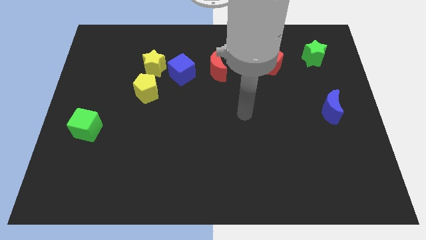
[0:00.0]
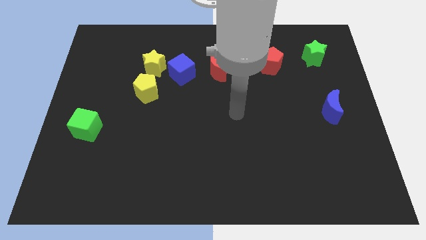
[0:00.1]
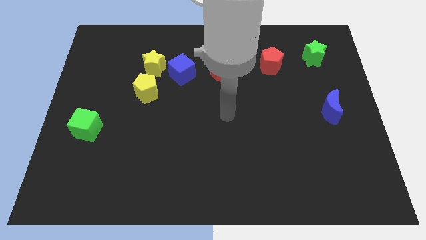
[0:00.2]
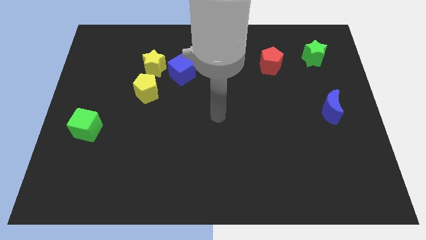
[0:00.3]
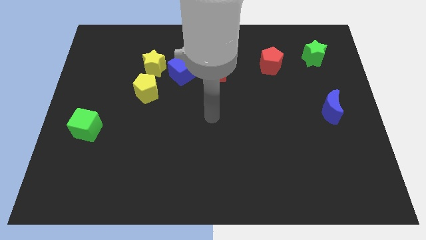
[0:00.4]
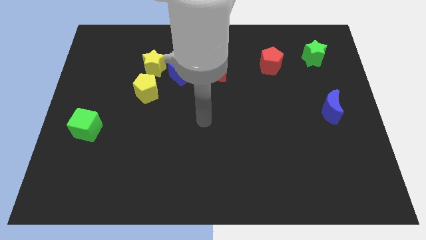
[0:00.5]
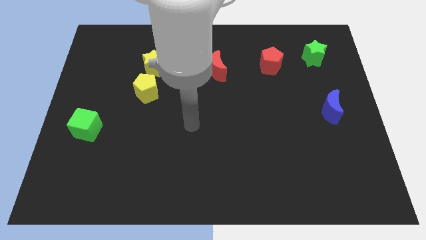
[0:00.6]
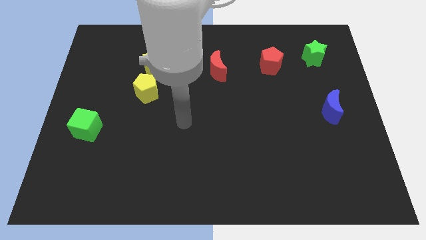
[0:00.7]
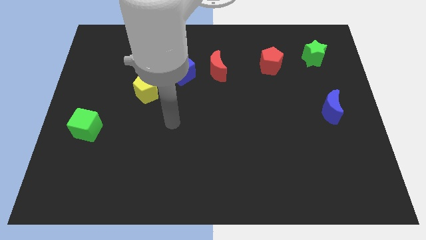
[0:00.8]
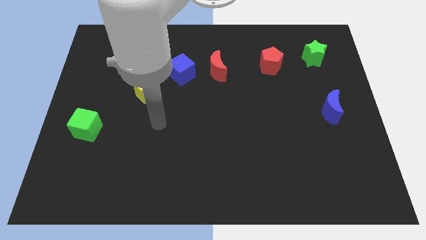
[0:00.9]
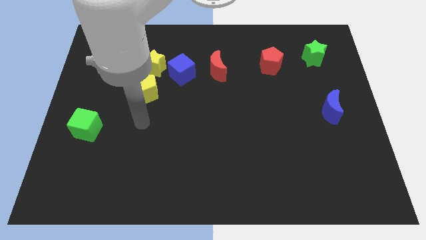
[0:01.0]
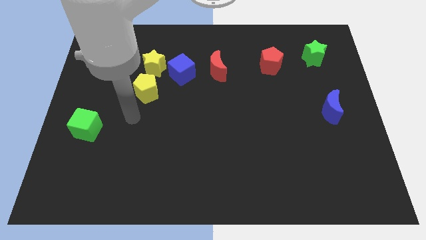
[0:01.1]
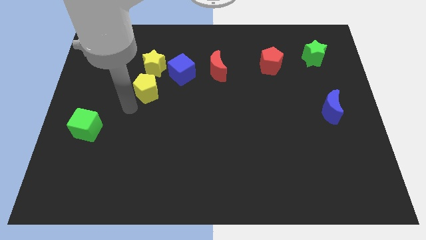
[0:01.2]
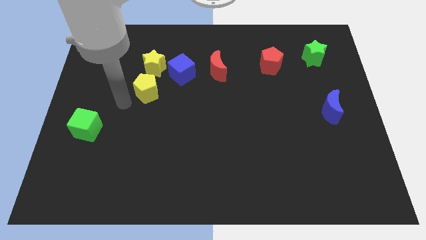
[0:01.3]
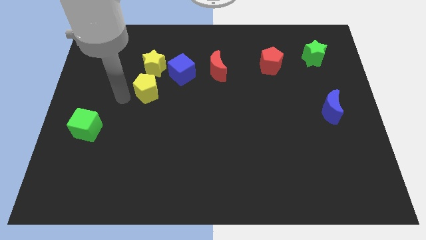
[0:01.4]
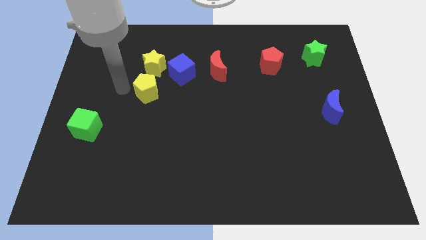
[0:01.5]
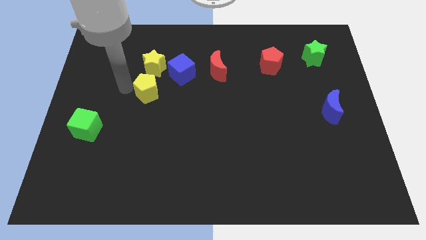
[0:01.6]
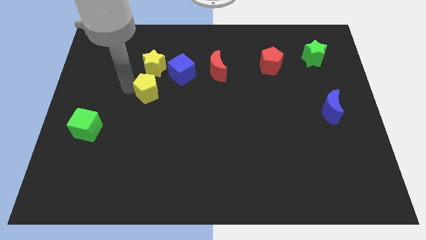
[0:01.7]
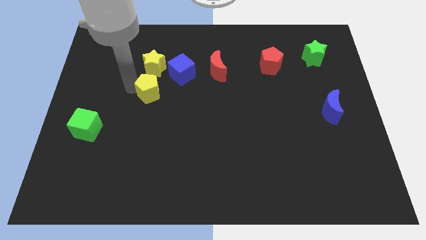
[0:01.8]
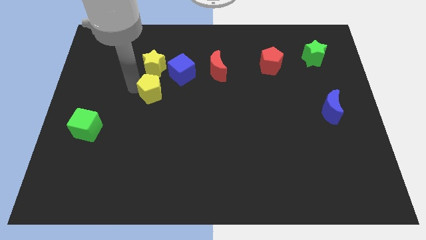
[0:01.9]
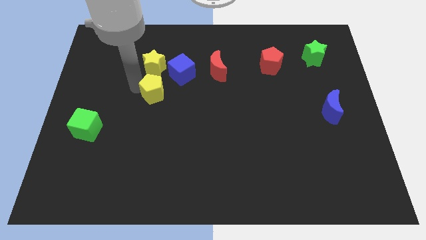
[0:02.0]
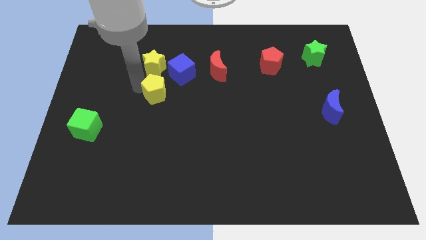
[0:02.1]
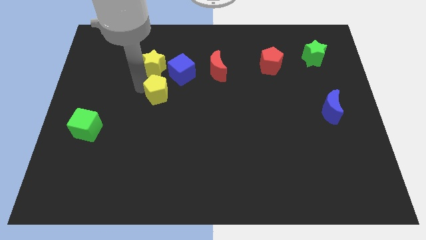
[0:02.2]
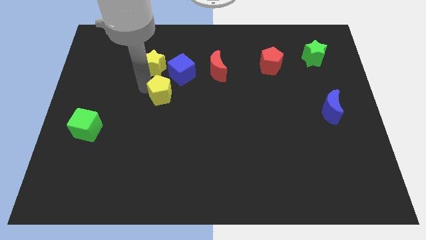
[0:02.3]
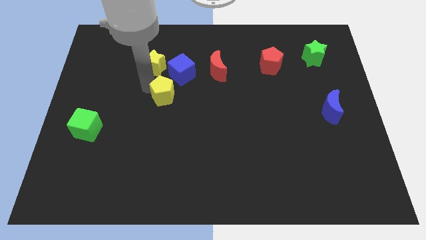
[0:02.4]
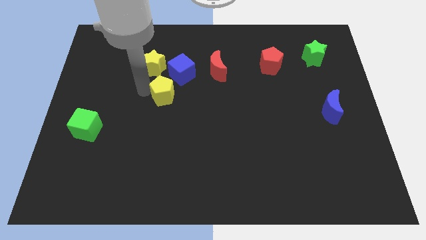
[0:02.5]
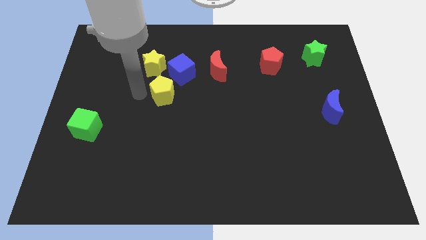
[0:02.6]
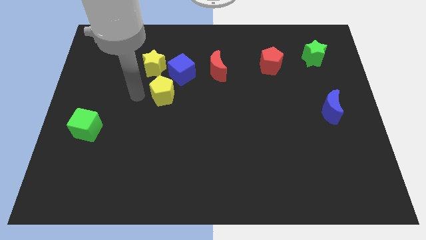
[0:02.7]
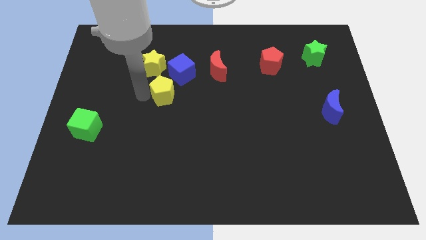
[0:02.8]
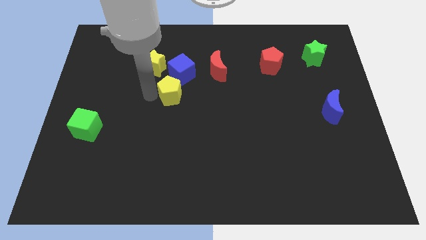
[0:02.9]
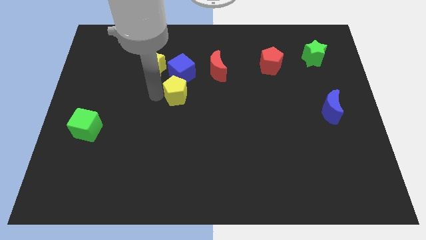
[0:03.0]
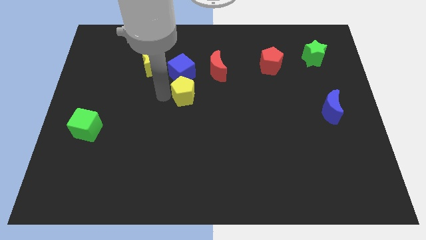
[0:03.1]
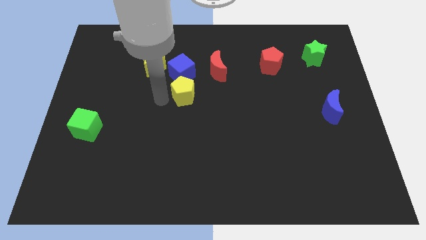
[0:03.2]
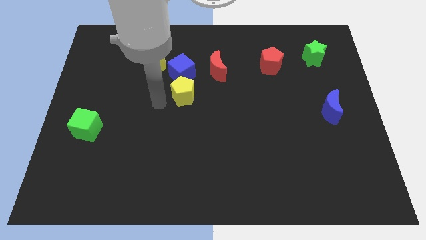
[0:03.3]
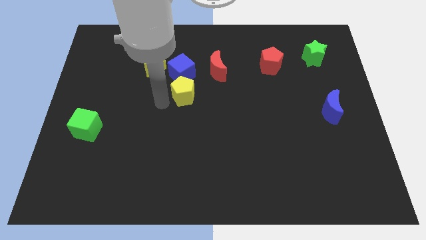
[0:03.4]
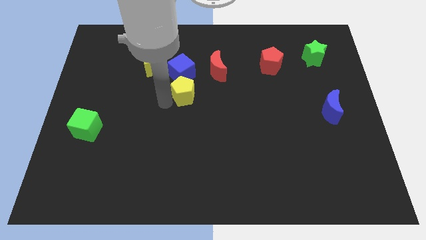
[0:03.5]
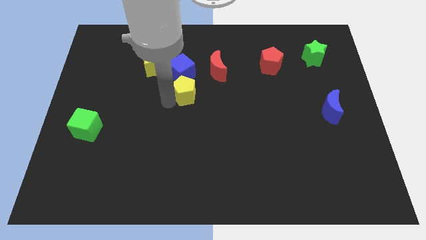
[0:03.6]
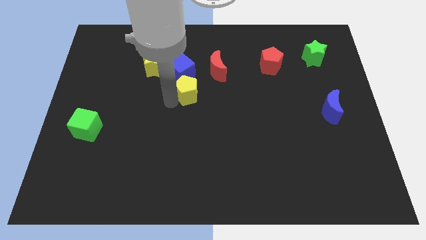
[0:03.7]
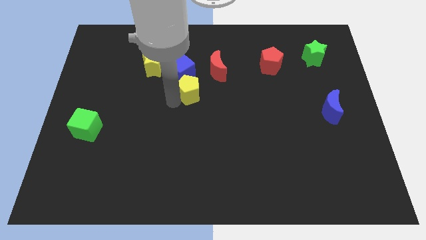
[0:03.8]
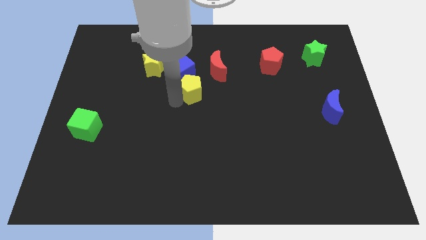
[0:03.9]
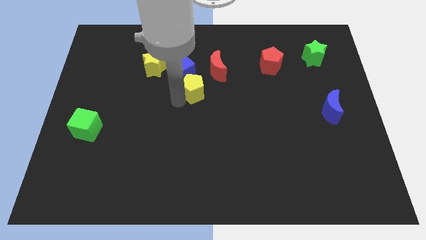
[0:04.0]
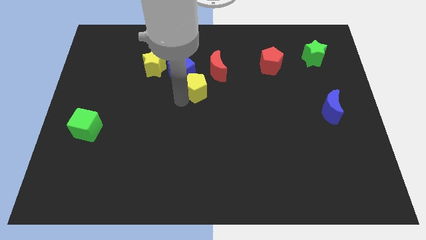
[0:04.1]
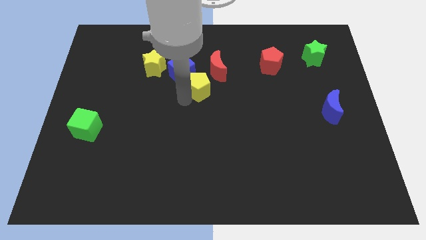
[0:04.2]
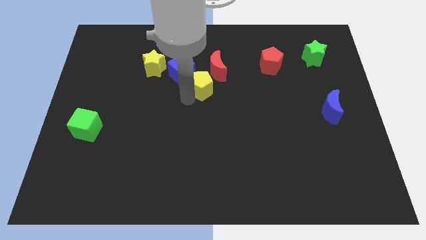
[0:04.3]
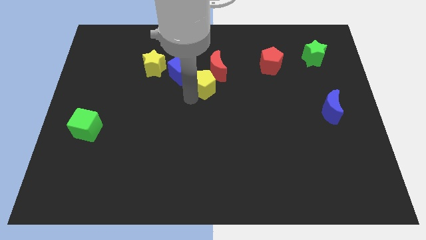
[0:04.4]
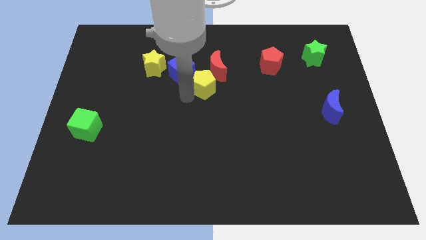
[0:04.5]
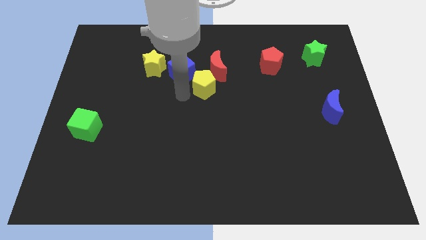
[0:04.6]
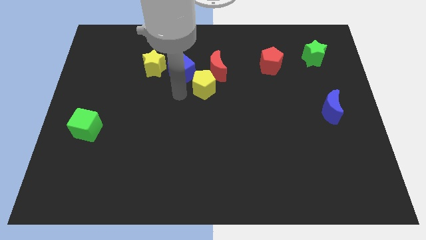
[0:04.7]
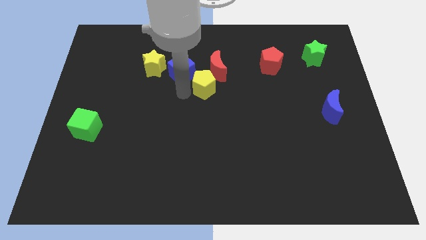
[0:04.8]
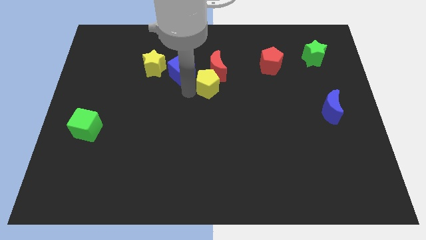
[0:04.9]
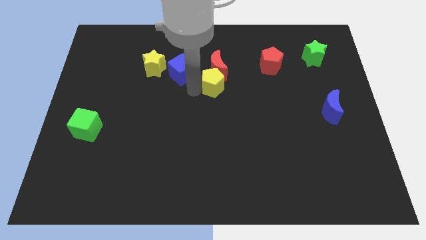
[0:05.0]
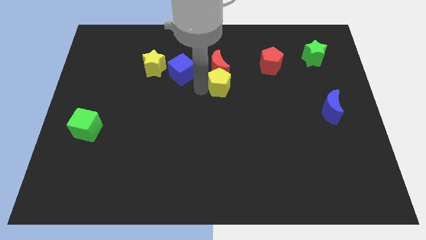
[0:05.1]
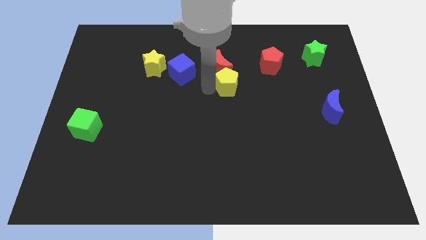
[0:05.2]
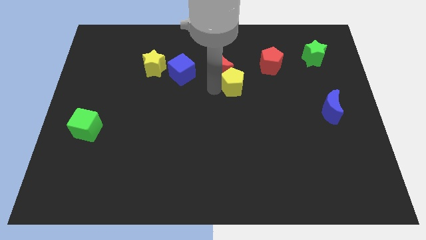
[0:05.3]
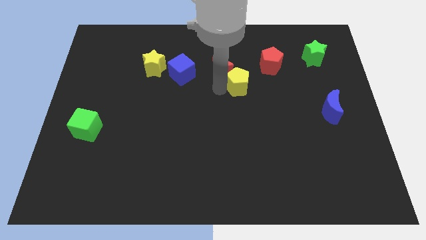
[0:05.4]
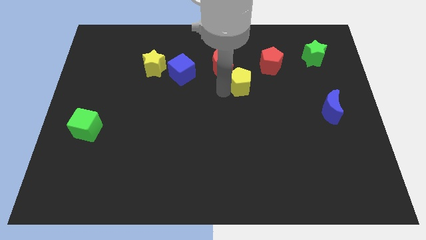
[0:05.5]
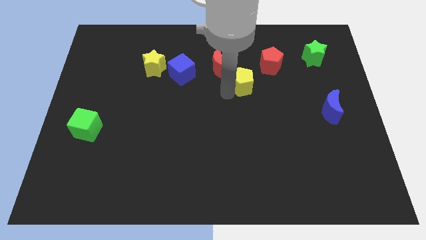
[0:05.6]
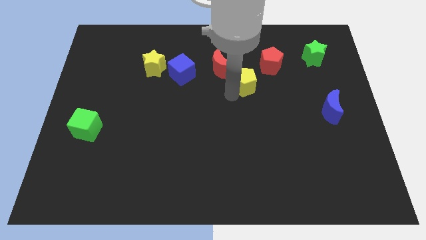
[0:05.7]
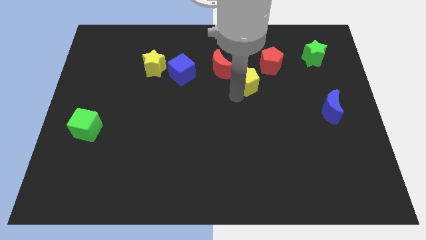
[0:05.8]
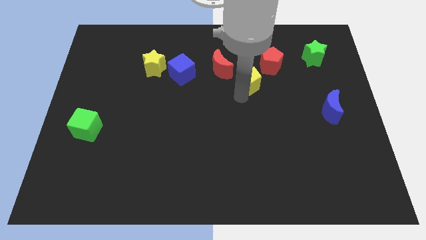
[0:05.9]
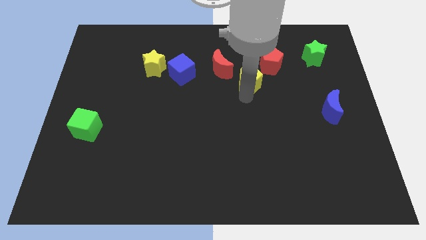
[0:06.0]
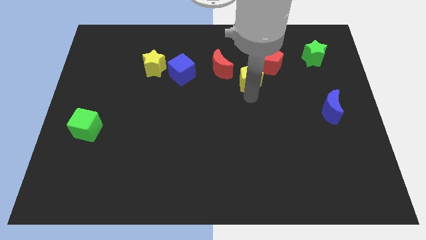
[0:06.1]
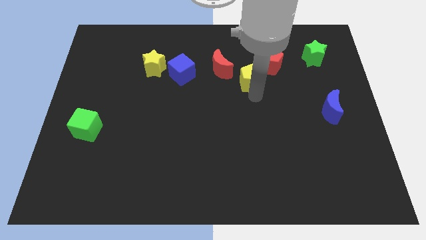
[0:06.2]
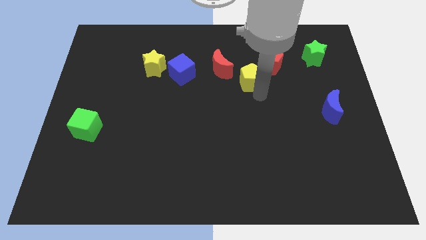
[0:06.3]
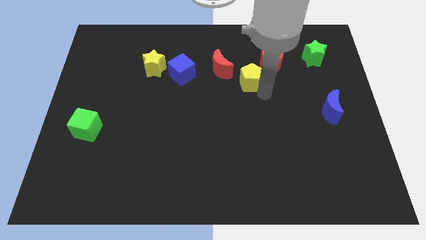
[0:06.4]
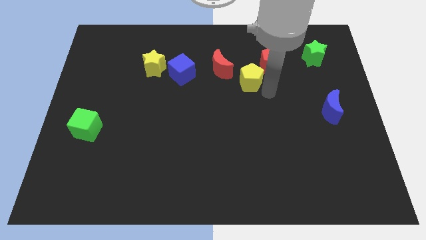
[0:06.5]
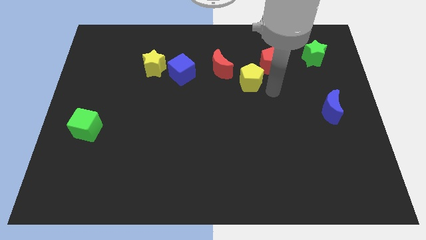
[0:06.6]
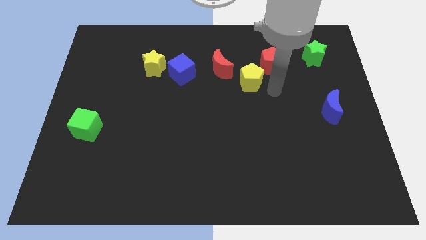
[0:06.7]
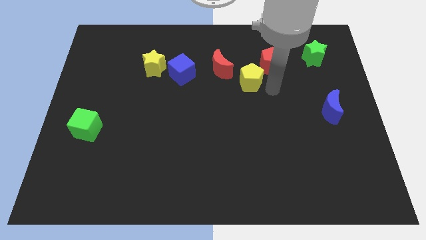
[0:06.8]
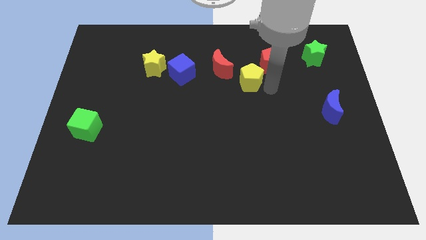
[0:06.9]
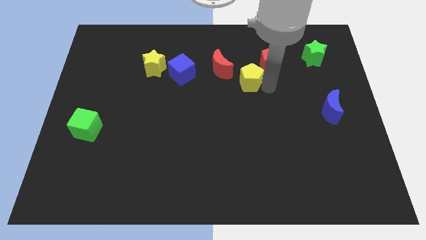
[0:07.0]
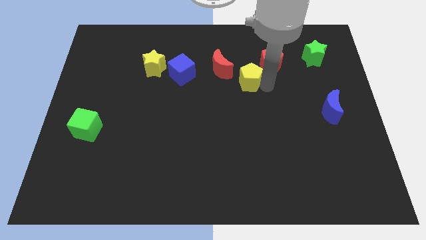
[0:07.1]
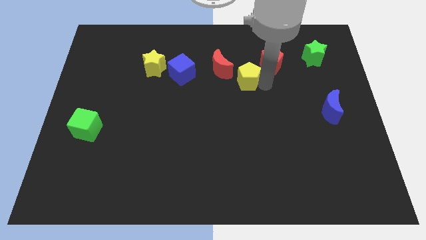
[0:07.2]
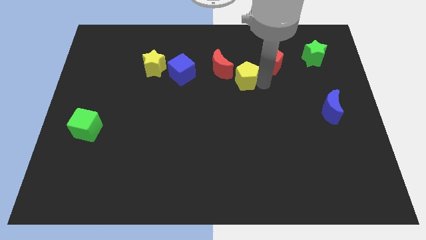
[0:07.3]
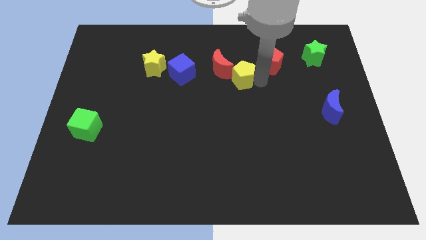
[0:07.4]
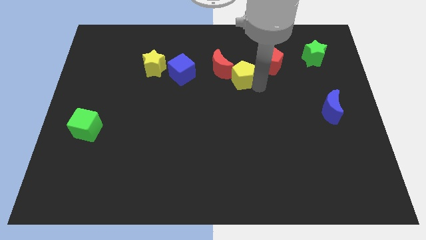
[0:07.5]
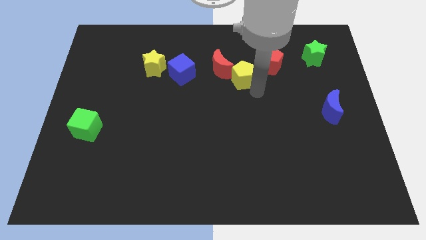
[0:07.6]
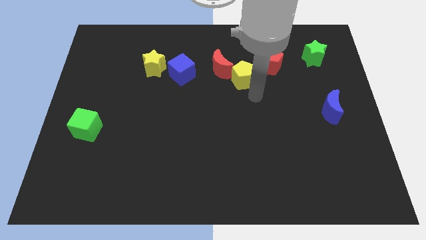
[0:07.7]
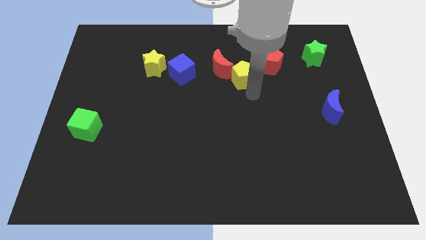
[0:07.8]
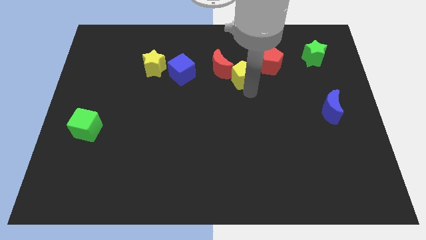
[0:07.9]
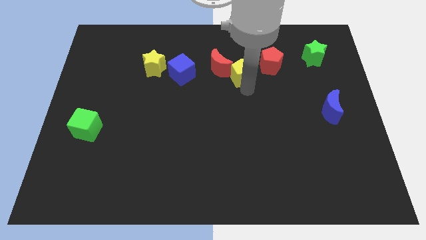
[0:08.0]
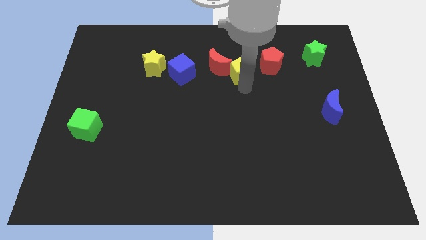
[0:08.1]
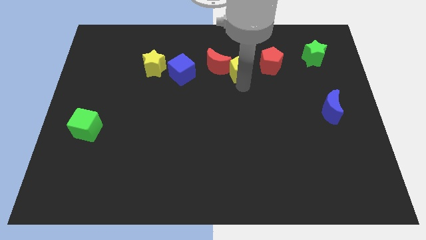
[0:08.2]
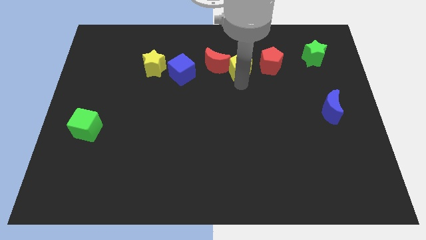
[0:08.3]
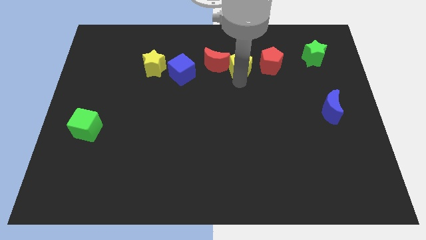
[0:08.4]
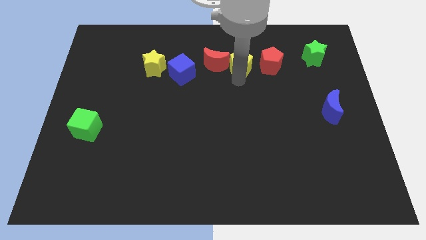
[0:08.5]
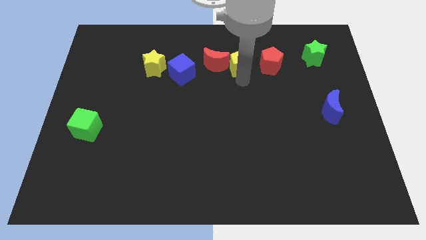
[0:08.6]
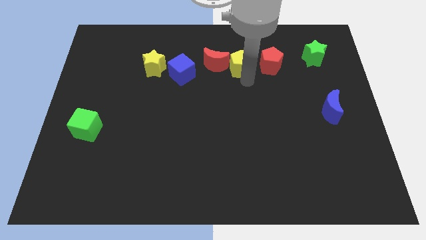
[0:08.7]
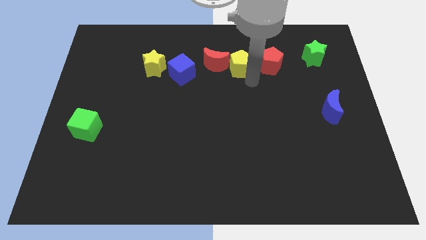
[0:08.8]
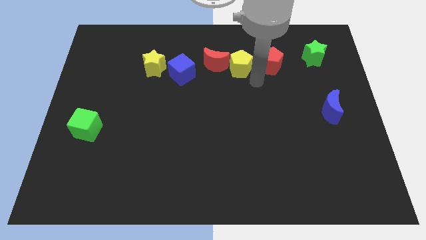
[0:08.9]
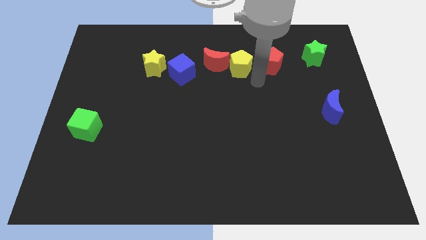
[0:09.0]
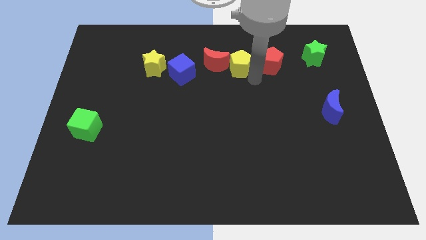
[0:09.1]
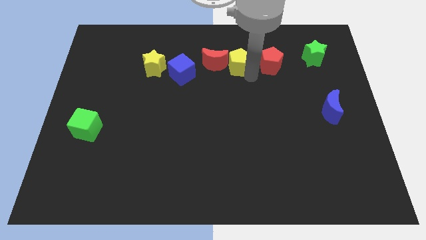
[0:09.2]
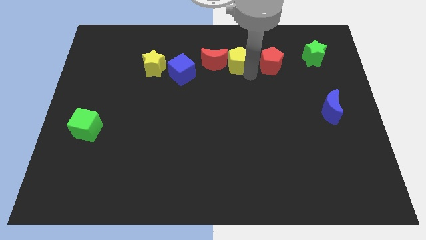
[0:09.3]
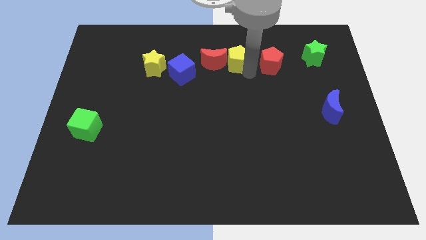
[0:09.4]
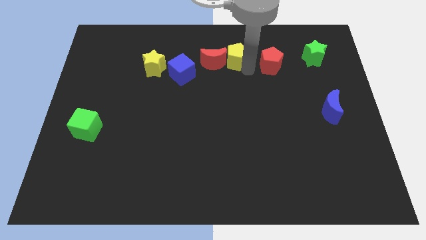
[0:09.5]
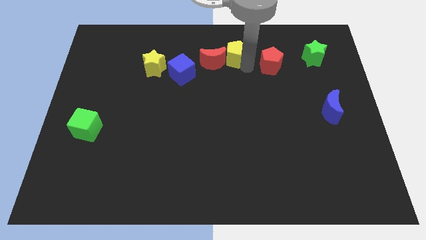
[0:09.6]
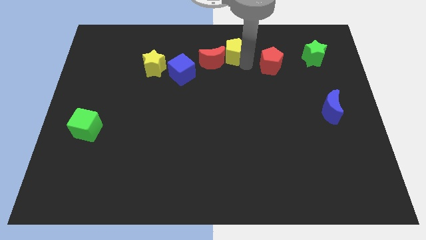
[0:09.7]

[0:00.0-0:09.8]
slide the yellow pentagon to the top side
